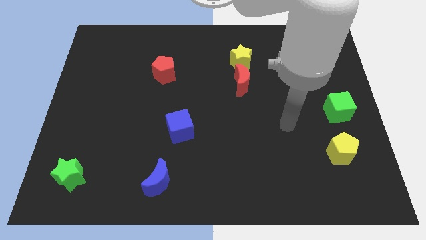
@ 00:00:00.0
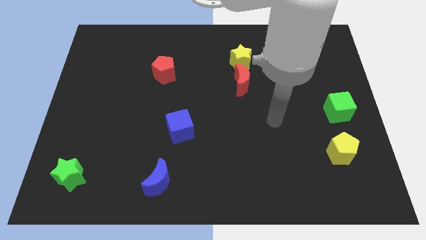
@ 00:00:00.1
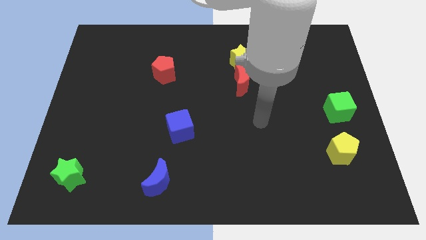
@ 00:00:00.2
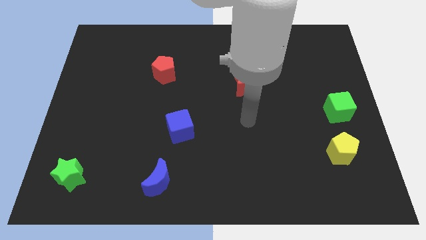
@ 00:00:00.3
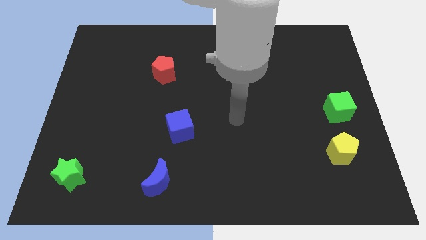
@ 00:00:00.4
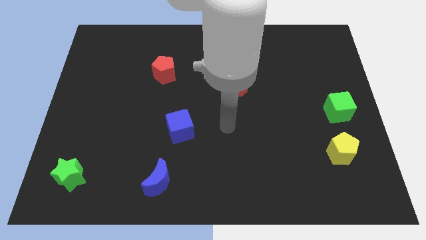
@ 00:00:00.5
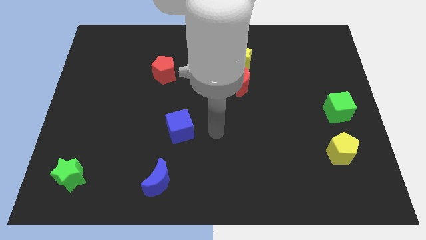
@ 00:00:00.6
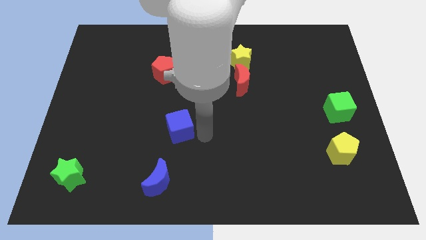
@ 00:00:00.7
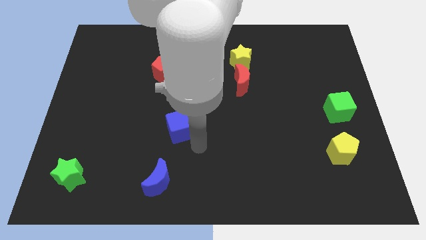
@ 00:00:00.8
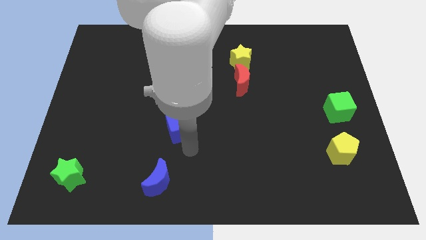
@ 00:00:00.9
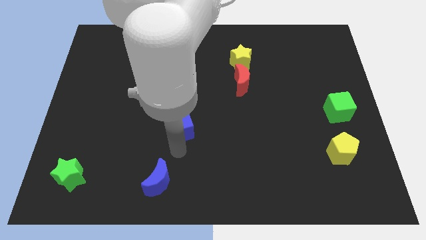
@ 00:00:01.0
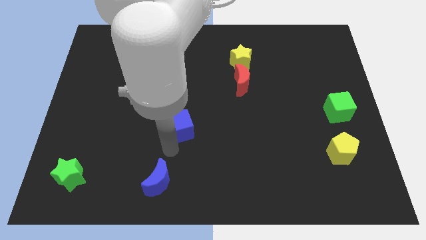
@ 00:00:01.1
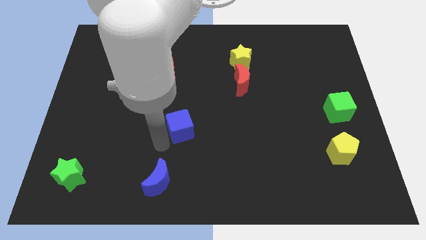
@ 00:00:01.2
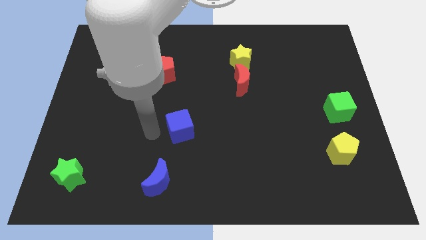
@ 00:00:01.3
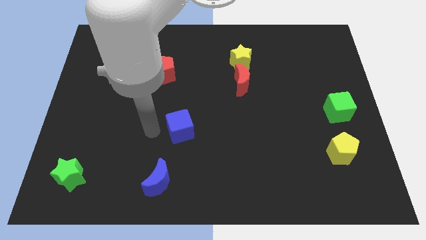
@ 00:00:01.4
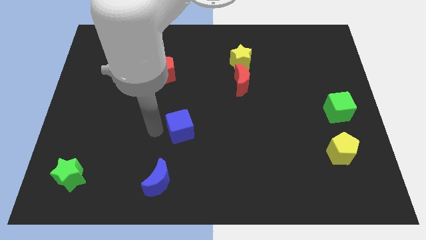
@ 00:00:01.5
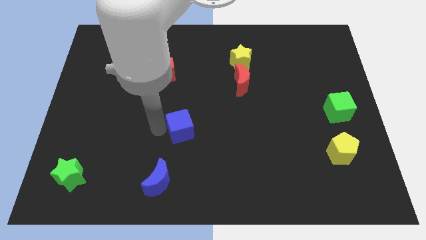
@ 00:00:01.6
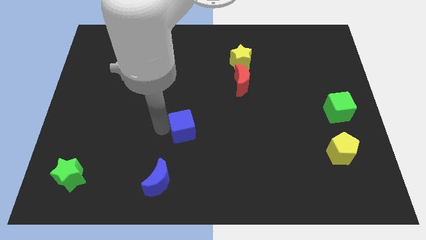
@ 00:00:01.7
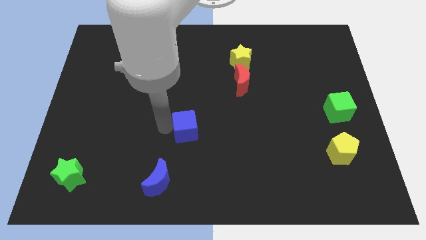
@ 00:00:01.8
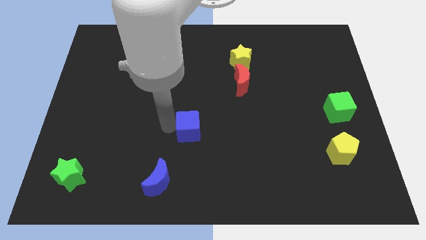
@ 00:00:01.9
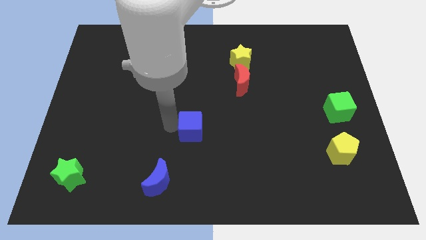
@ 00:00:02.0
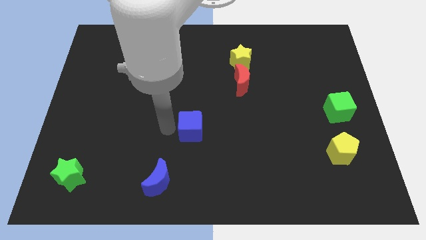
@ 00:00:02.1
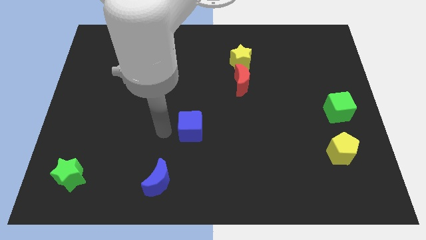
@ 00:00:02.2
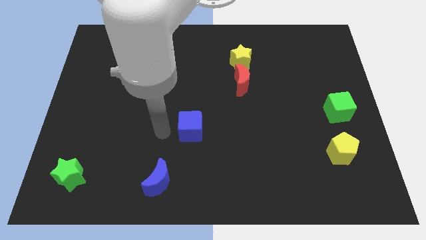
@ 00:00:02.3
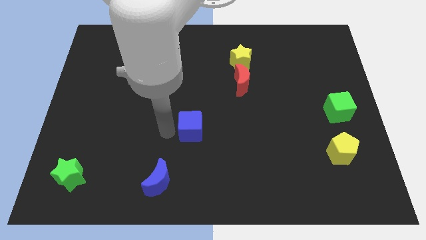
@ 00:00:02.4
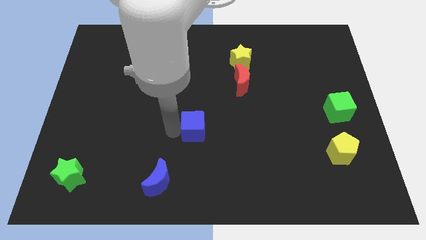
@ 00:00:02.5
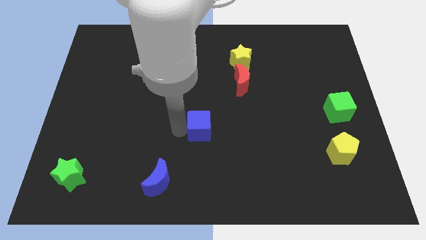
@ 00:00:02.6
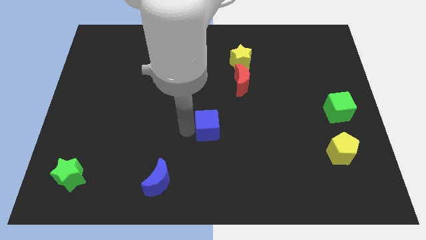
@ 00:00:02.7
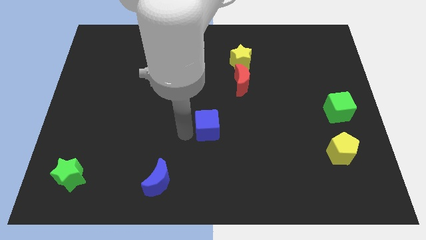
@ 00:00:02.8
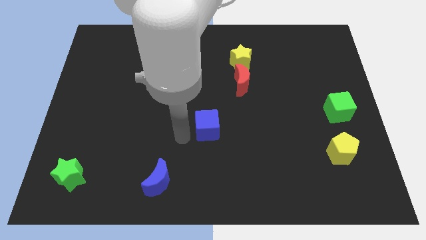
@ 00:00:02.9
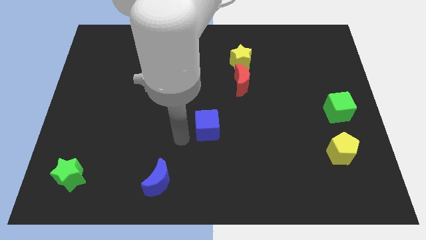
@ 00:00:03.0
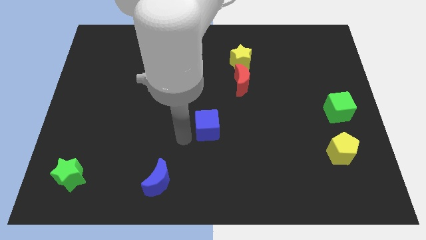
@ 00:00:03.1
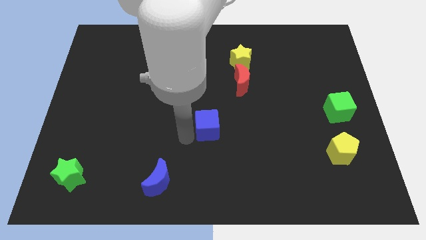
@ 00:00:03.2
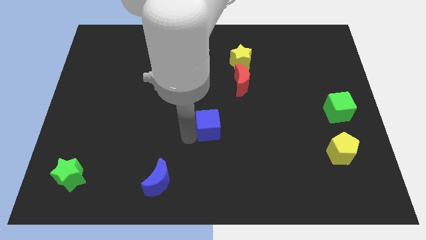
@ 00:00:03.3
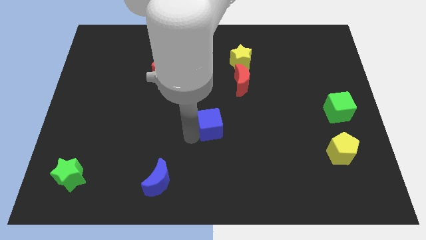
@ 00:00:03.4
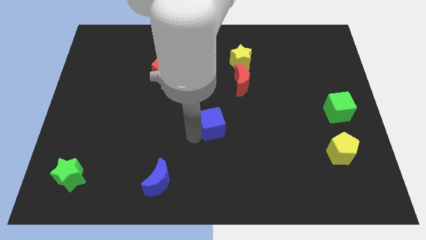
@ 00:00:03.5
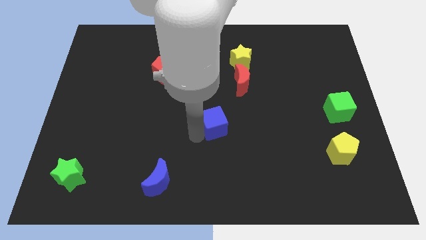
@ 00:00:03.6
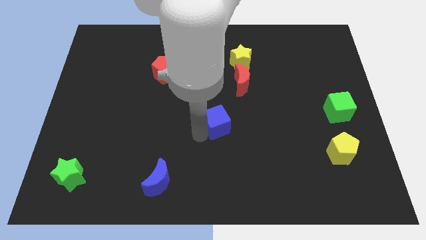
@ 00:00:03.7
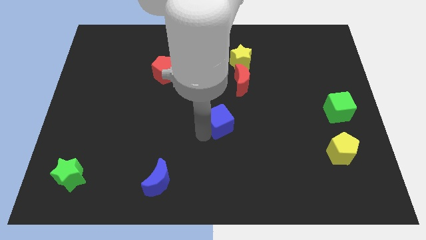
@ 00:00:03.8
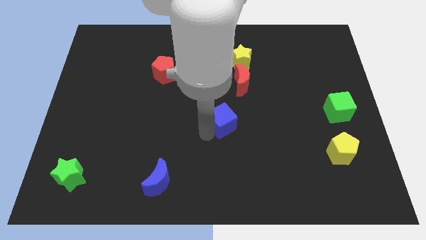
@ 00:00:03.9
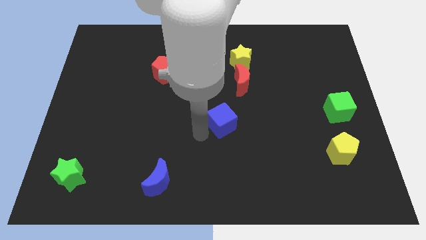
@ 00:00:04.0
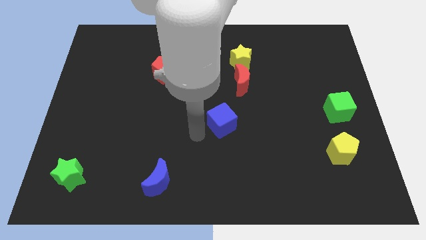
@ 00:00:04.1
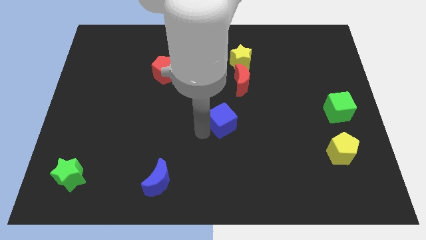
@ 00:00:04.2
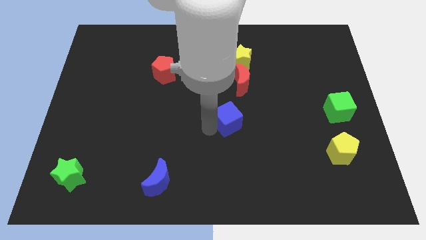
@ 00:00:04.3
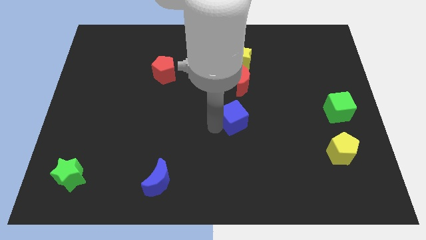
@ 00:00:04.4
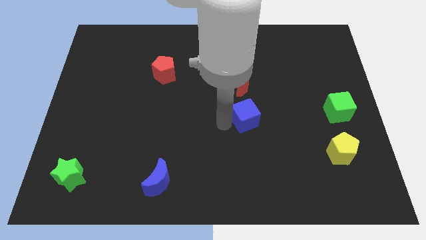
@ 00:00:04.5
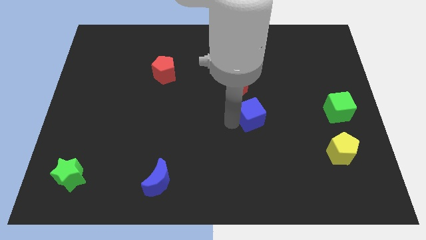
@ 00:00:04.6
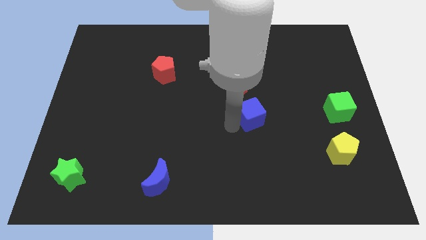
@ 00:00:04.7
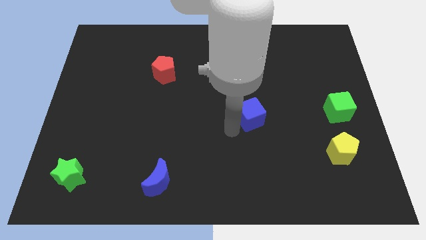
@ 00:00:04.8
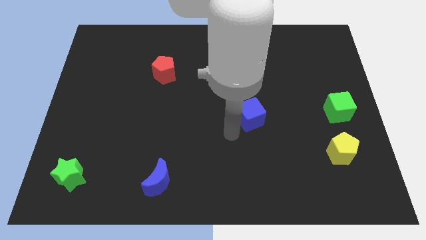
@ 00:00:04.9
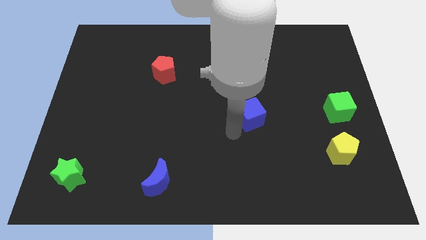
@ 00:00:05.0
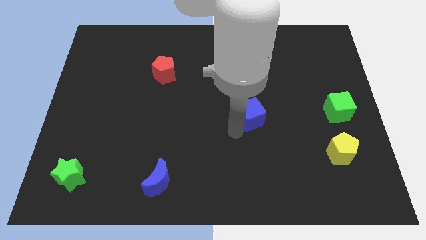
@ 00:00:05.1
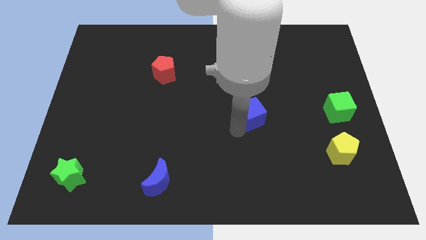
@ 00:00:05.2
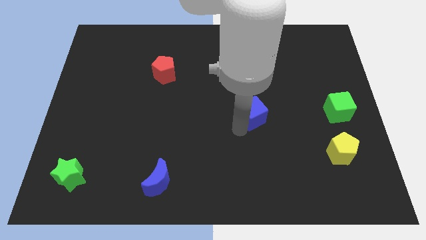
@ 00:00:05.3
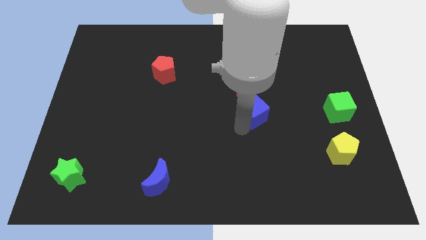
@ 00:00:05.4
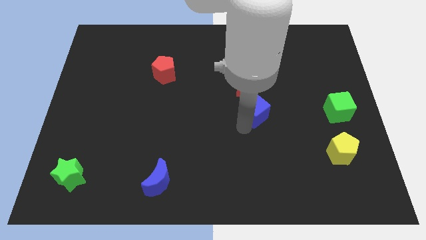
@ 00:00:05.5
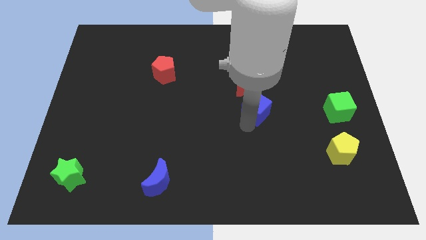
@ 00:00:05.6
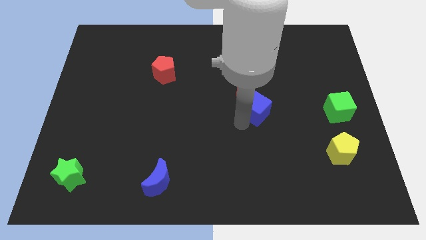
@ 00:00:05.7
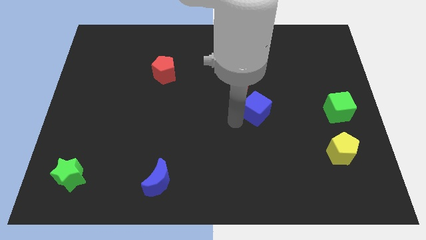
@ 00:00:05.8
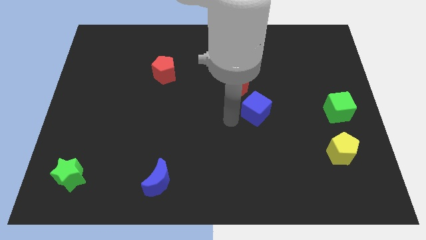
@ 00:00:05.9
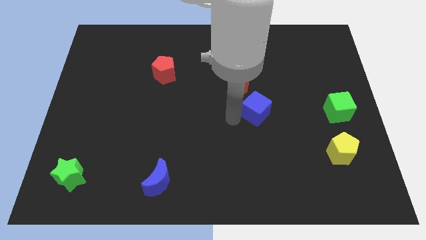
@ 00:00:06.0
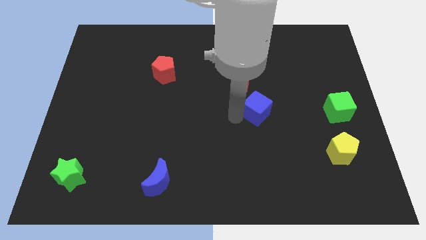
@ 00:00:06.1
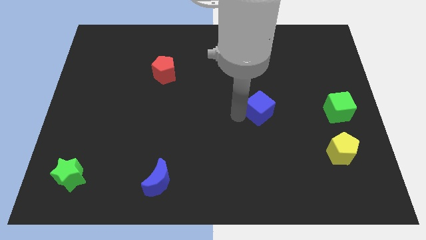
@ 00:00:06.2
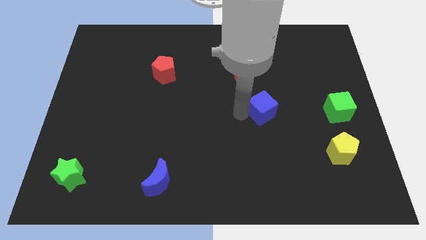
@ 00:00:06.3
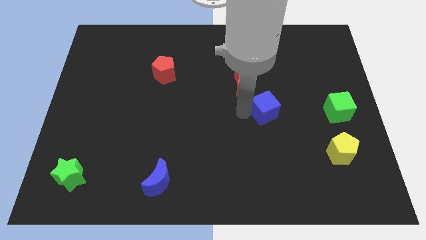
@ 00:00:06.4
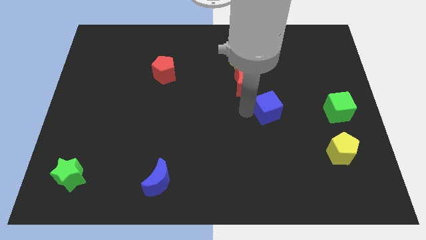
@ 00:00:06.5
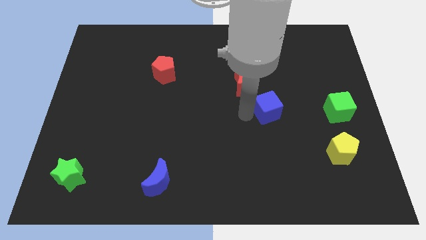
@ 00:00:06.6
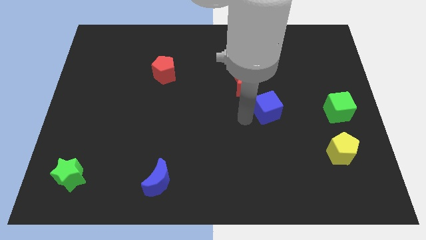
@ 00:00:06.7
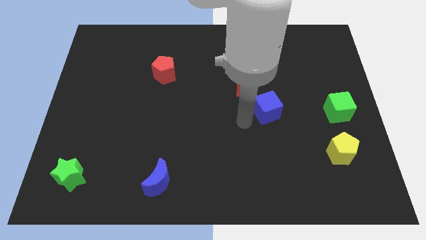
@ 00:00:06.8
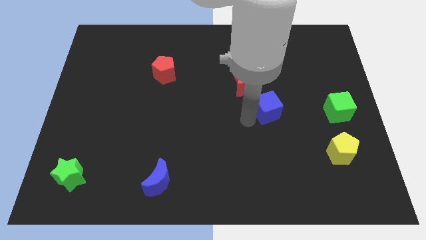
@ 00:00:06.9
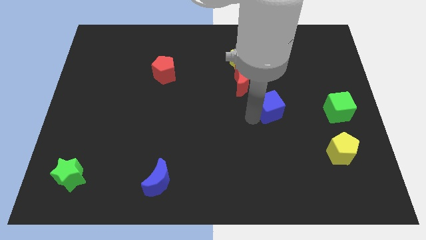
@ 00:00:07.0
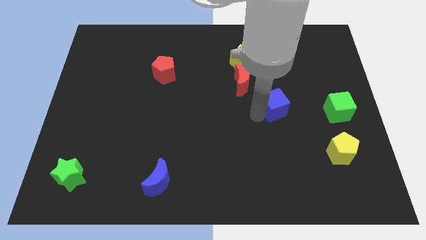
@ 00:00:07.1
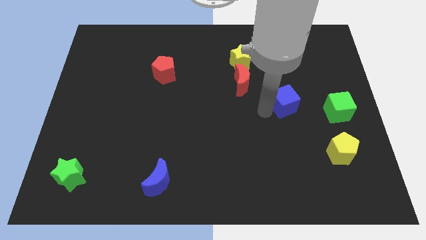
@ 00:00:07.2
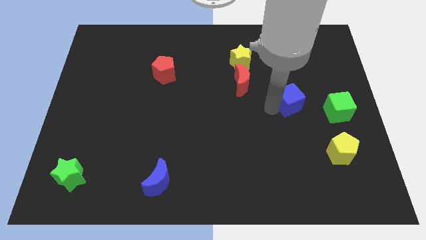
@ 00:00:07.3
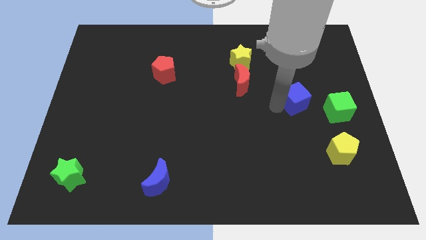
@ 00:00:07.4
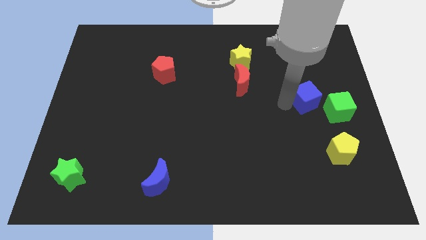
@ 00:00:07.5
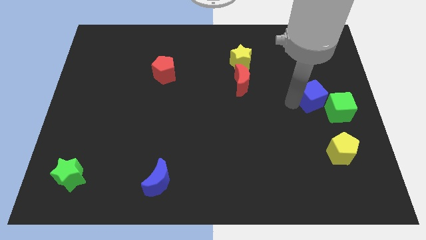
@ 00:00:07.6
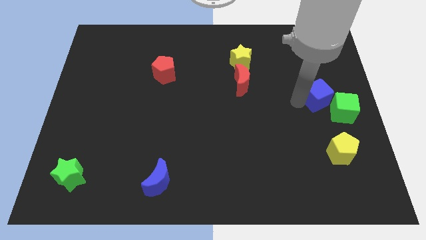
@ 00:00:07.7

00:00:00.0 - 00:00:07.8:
move the blue cube to the right side of the board
